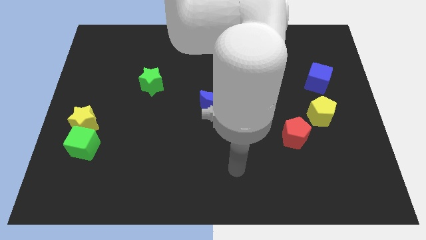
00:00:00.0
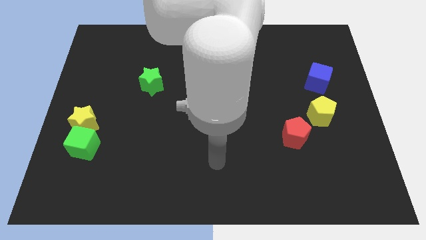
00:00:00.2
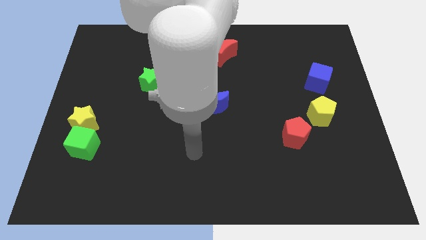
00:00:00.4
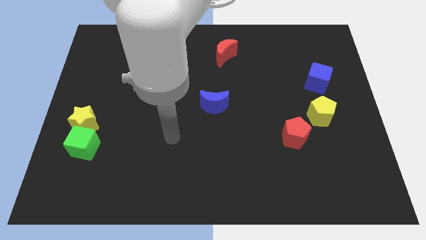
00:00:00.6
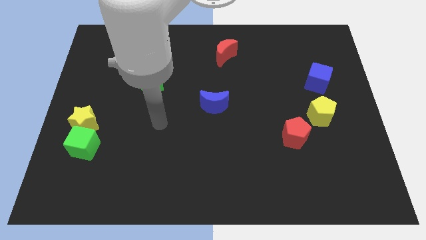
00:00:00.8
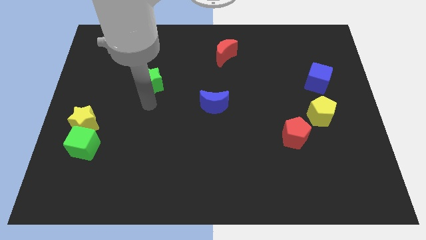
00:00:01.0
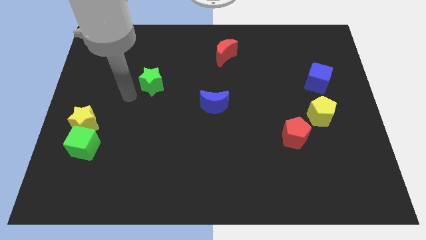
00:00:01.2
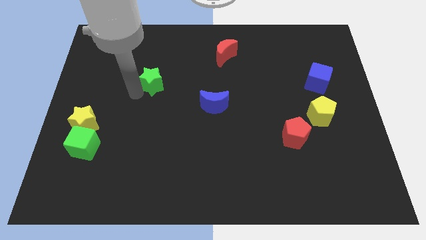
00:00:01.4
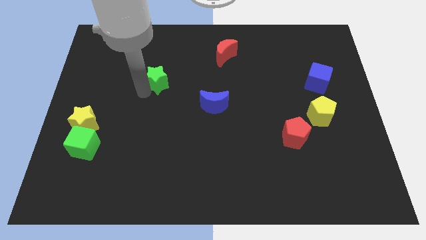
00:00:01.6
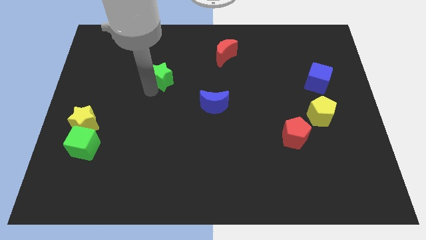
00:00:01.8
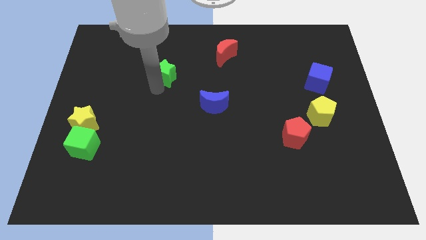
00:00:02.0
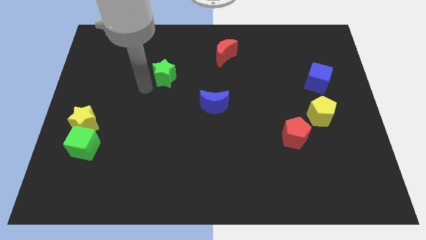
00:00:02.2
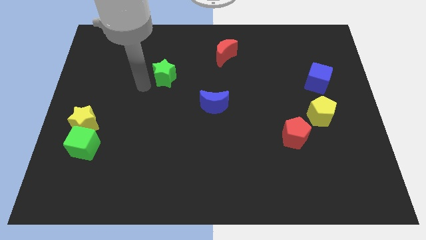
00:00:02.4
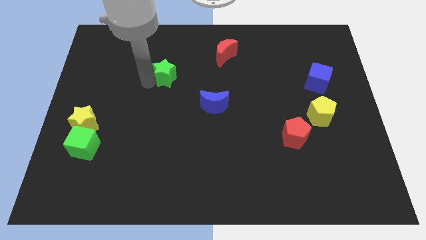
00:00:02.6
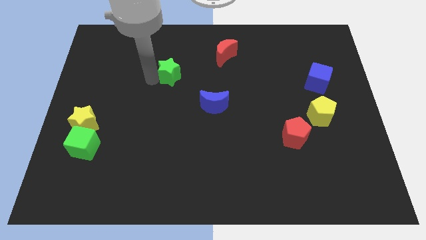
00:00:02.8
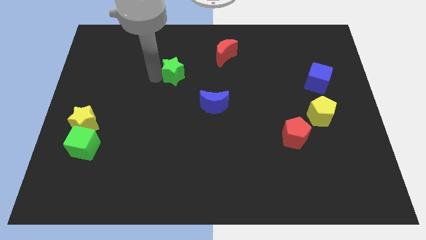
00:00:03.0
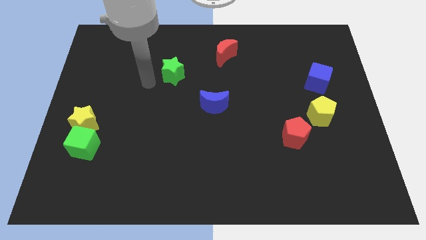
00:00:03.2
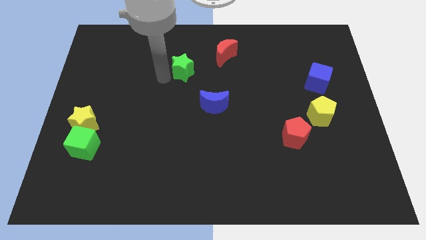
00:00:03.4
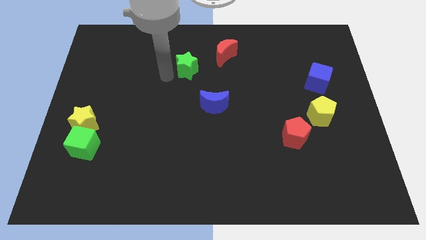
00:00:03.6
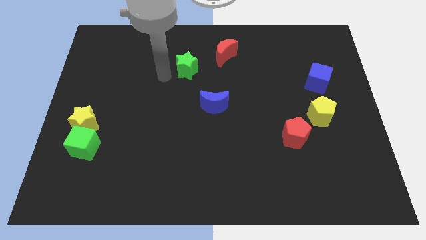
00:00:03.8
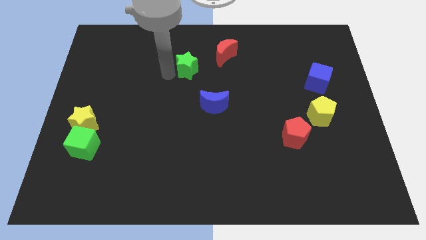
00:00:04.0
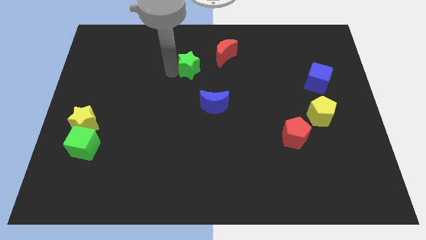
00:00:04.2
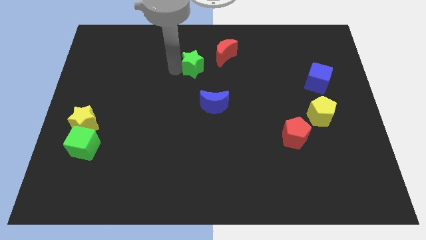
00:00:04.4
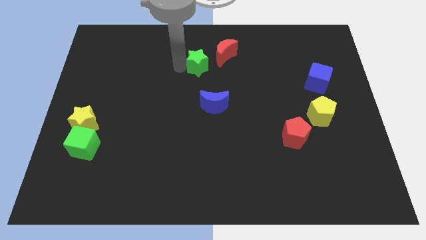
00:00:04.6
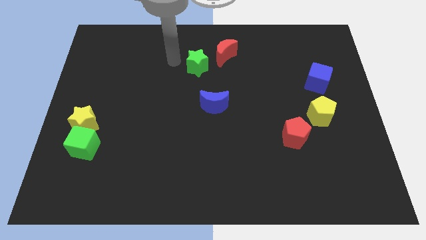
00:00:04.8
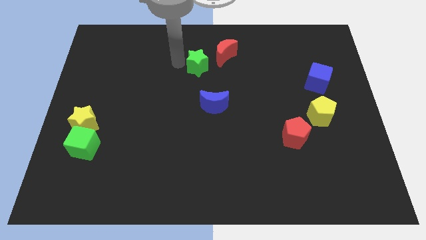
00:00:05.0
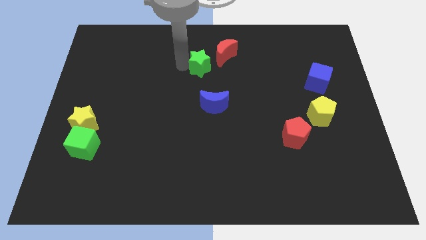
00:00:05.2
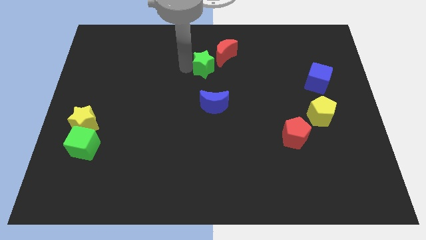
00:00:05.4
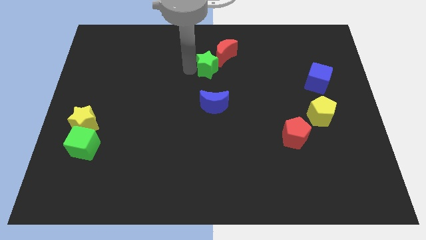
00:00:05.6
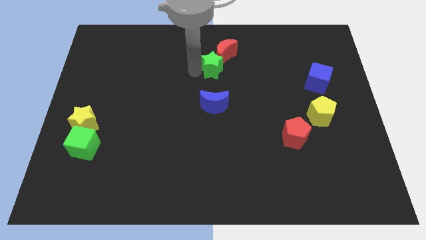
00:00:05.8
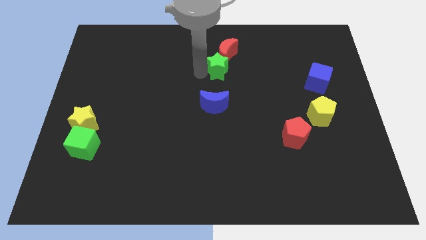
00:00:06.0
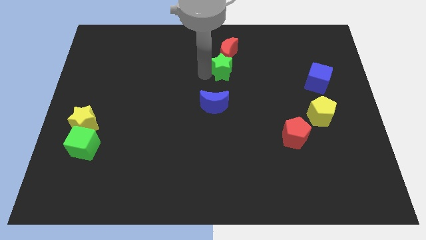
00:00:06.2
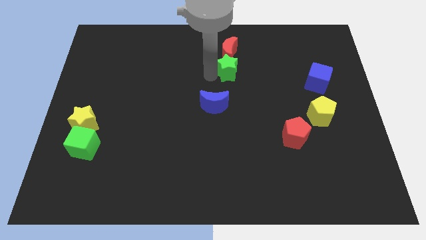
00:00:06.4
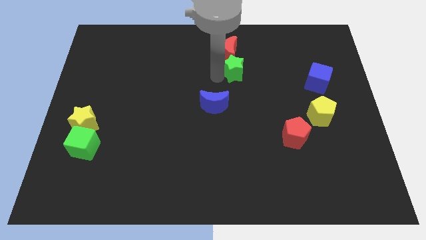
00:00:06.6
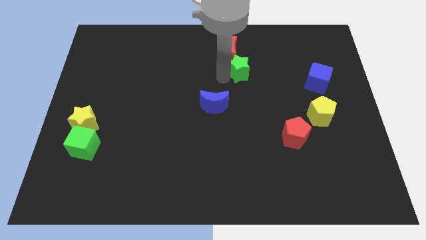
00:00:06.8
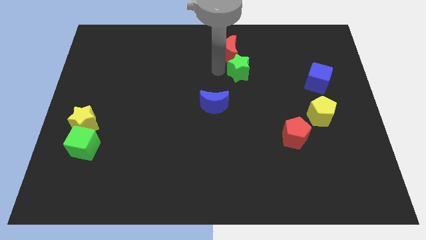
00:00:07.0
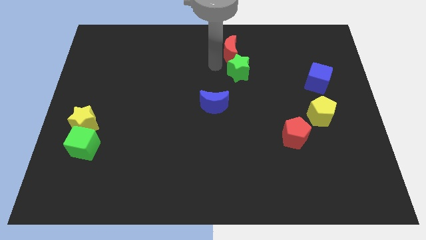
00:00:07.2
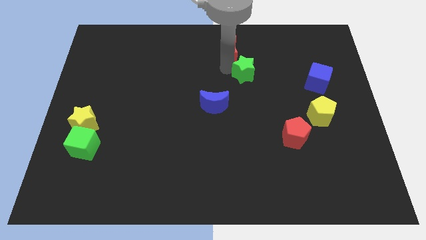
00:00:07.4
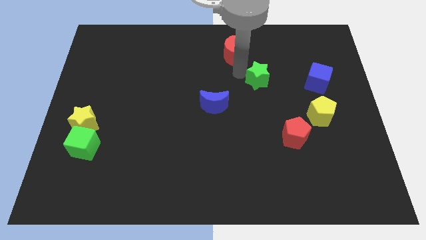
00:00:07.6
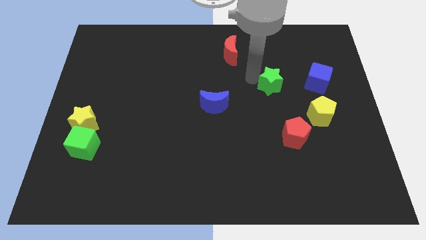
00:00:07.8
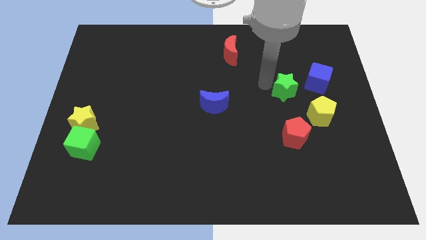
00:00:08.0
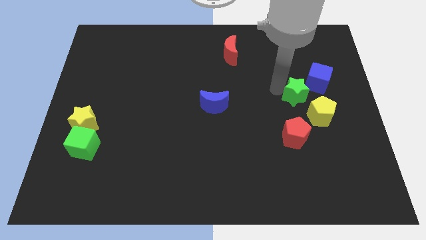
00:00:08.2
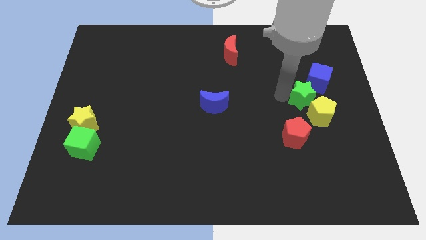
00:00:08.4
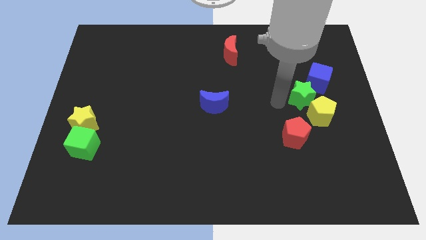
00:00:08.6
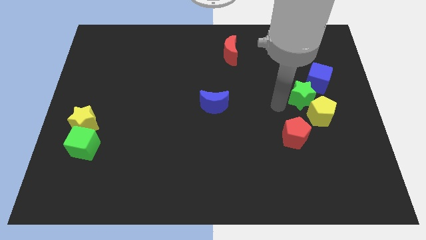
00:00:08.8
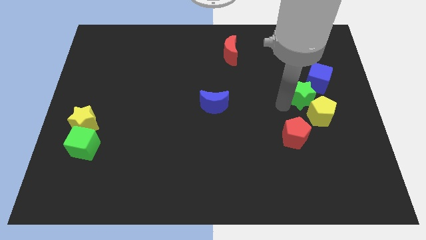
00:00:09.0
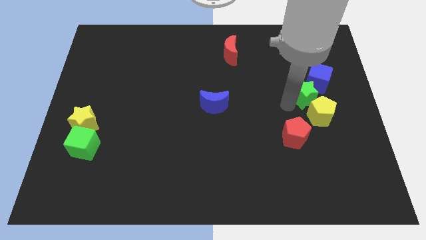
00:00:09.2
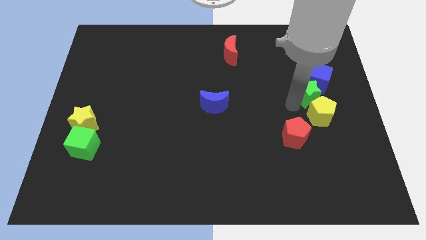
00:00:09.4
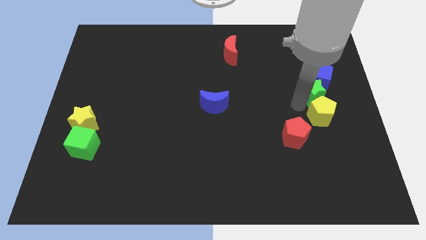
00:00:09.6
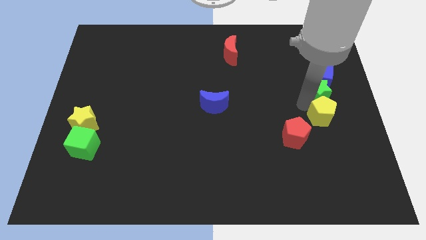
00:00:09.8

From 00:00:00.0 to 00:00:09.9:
slide the green star to the right side of the board

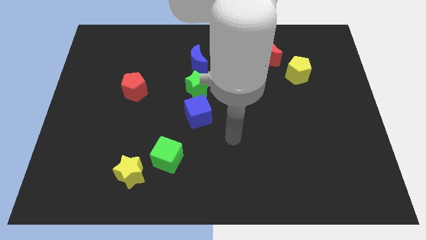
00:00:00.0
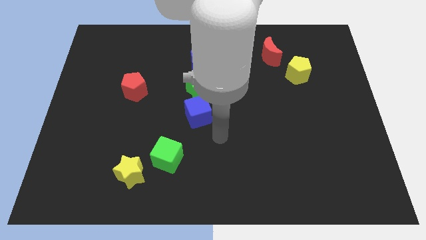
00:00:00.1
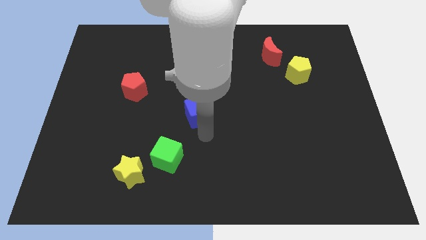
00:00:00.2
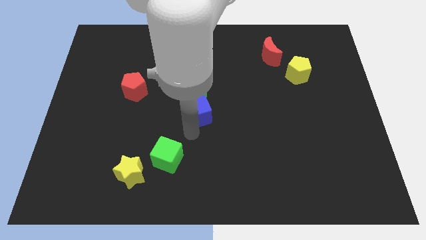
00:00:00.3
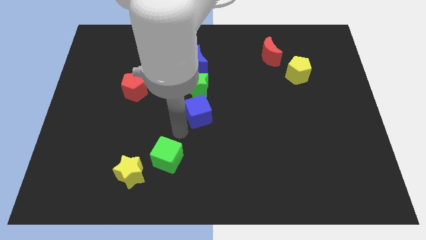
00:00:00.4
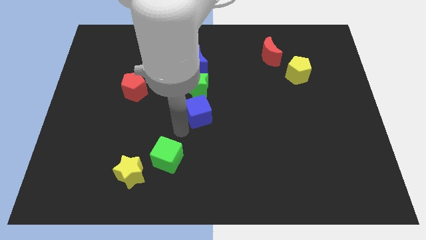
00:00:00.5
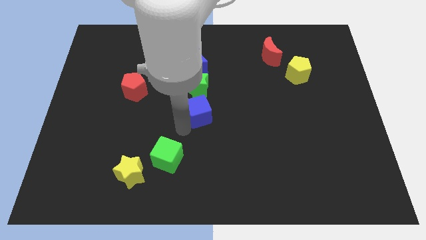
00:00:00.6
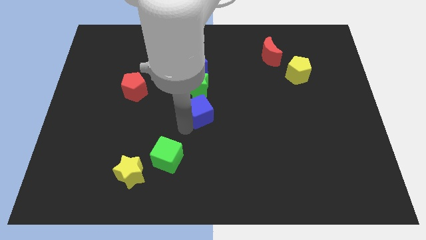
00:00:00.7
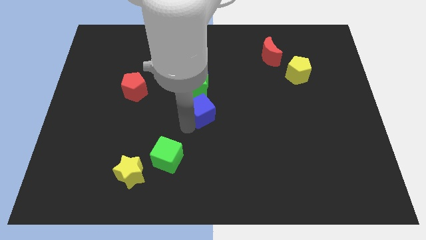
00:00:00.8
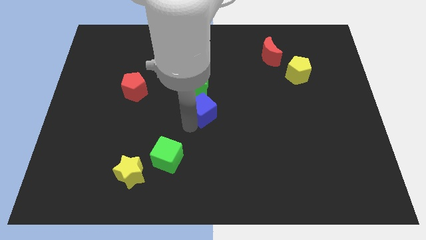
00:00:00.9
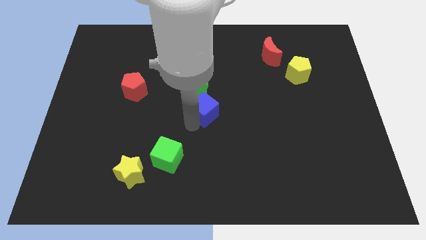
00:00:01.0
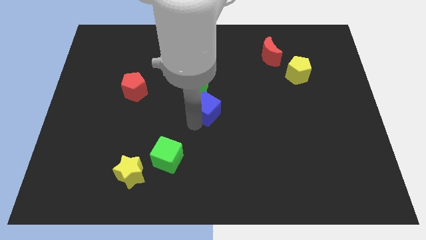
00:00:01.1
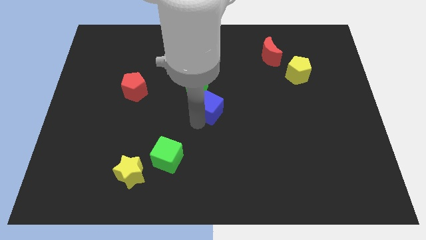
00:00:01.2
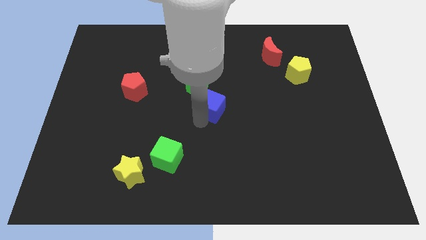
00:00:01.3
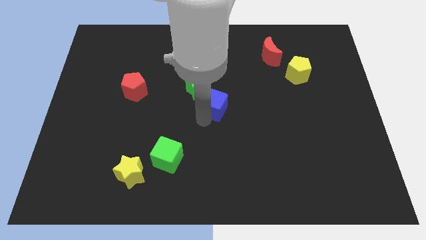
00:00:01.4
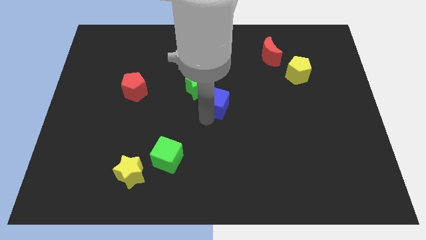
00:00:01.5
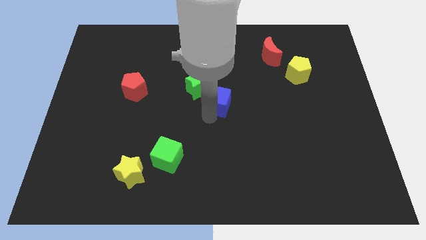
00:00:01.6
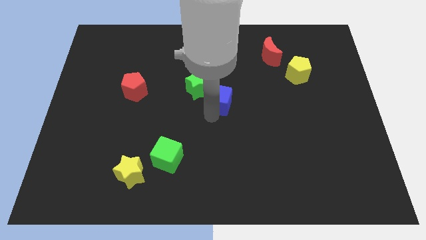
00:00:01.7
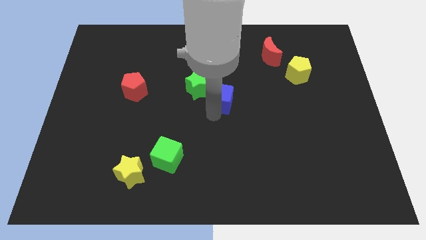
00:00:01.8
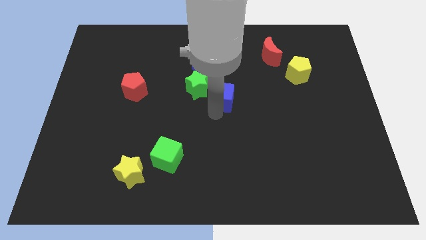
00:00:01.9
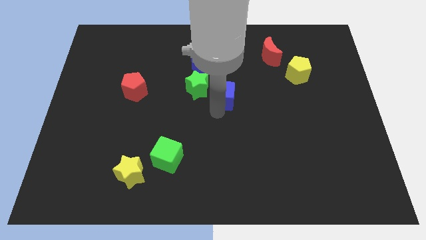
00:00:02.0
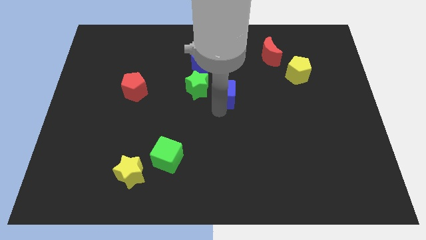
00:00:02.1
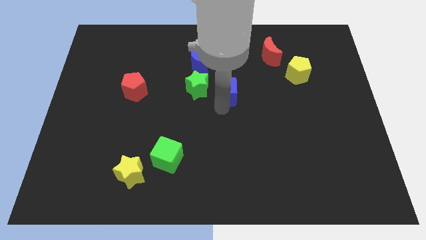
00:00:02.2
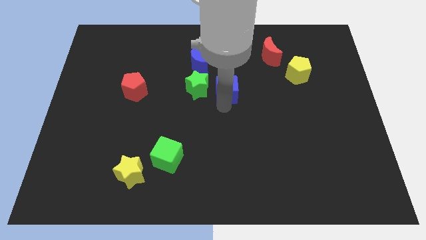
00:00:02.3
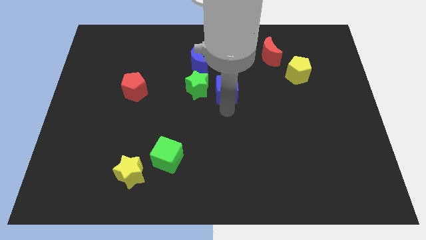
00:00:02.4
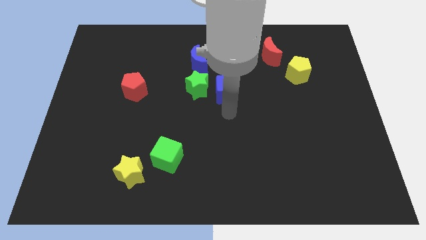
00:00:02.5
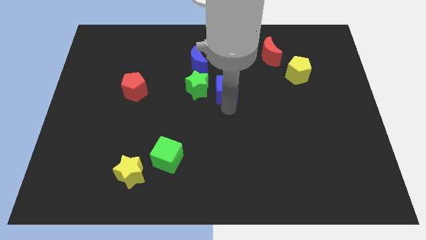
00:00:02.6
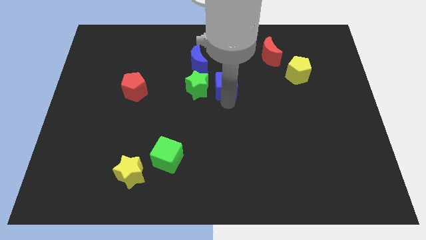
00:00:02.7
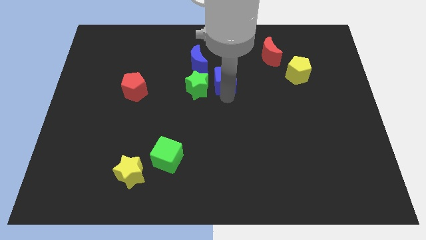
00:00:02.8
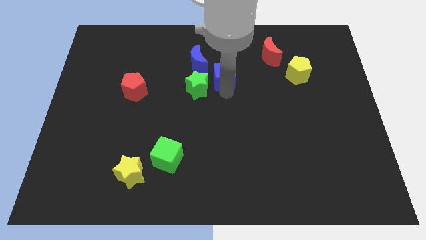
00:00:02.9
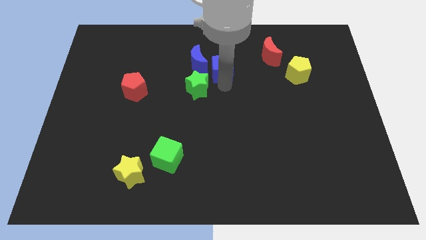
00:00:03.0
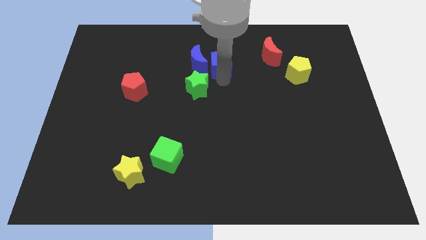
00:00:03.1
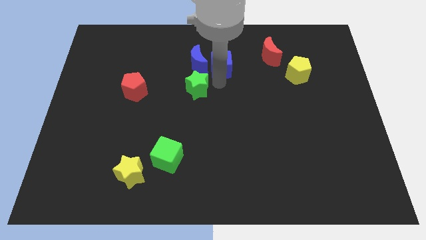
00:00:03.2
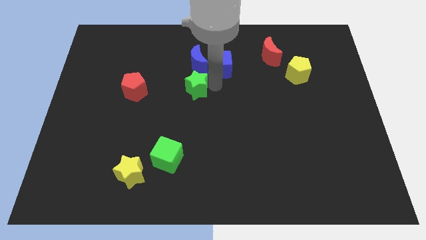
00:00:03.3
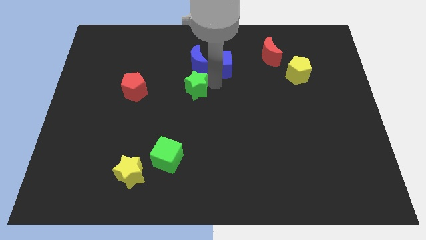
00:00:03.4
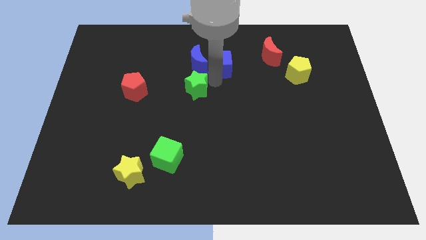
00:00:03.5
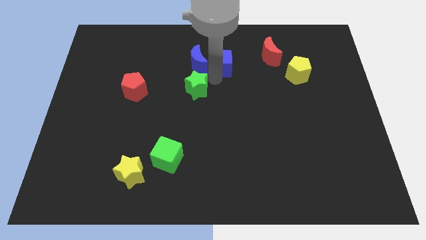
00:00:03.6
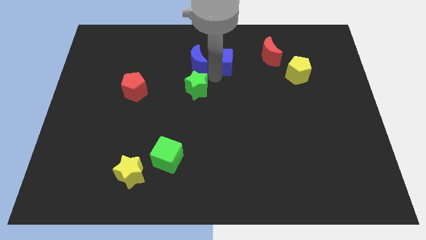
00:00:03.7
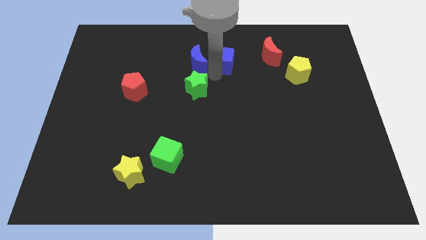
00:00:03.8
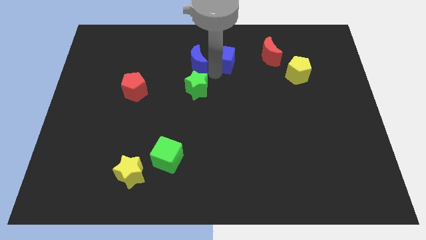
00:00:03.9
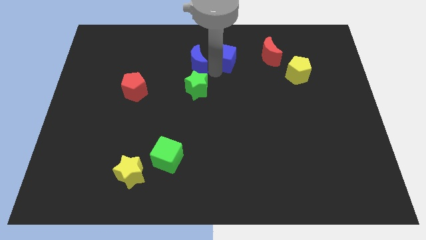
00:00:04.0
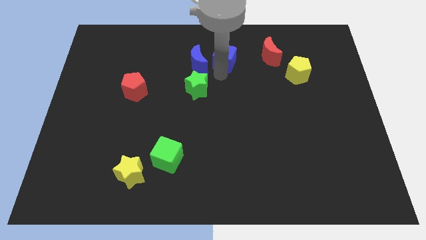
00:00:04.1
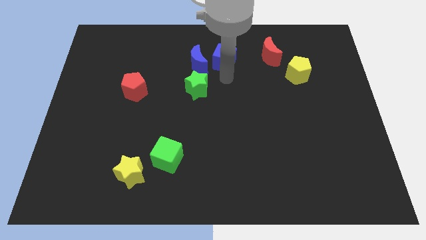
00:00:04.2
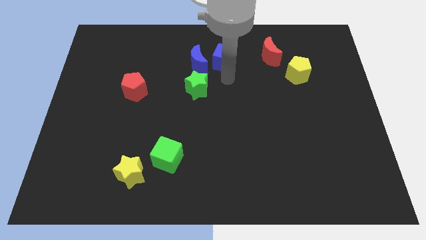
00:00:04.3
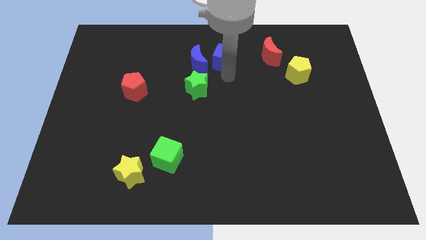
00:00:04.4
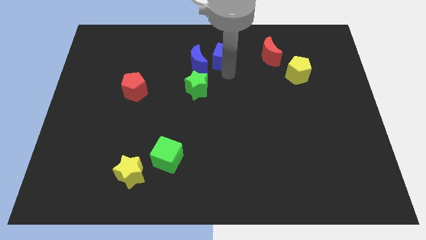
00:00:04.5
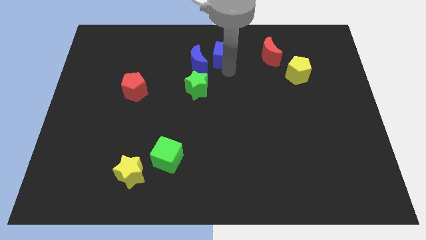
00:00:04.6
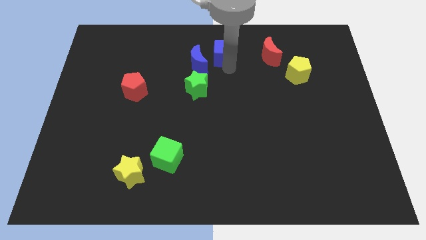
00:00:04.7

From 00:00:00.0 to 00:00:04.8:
put the blue cube to the top
